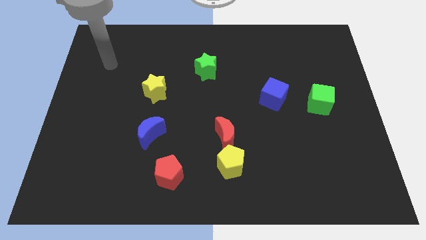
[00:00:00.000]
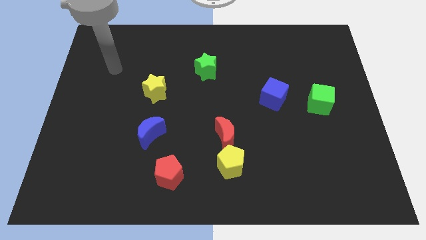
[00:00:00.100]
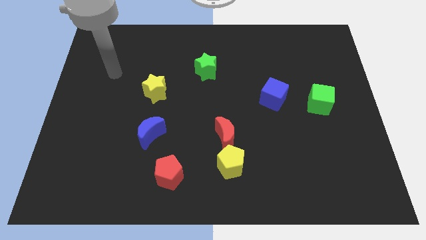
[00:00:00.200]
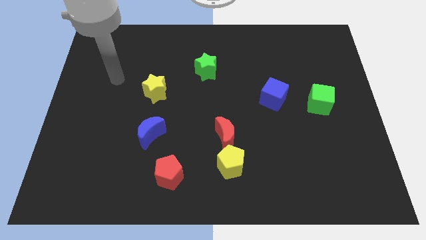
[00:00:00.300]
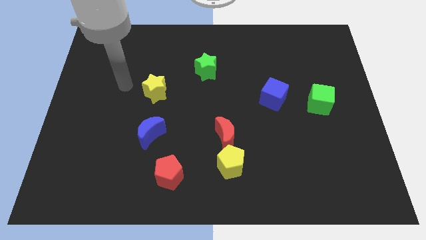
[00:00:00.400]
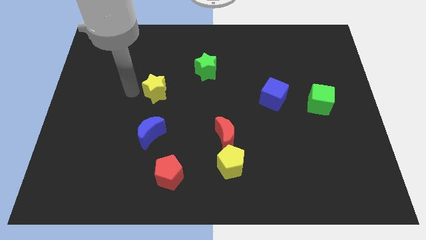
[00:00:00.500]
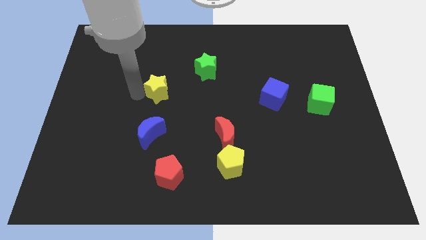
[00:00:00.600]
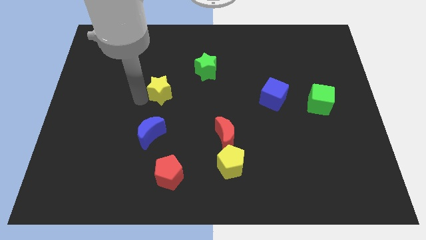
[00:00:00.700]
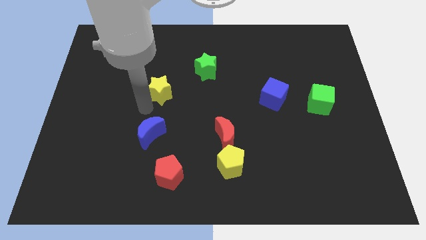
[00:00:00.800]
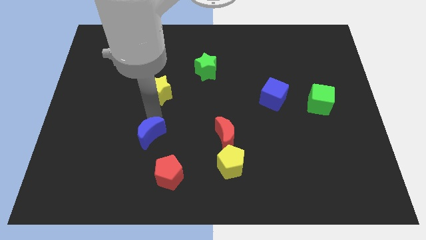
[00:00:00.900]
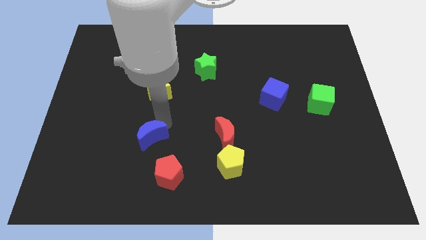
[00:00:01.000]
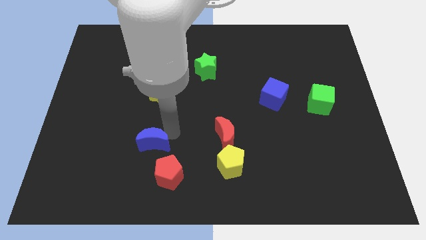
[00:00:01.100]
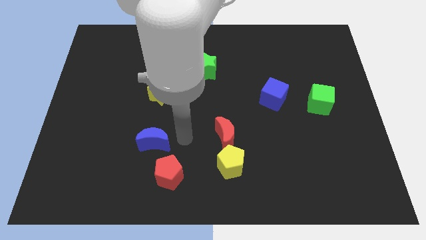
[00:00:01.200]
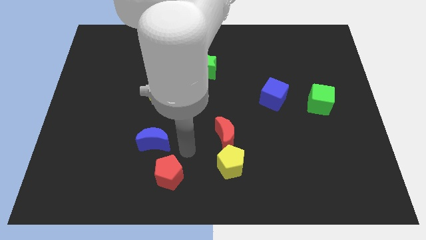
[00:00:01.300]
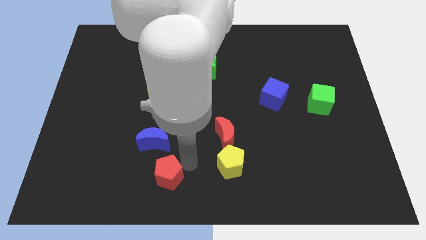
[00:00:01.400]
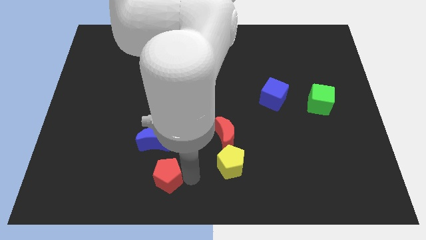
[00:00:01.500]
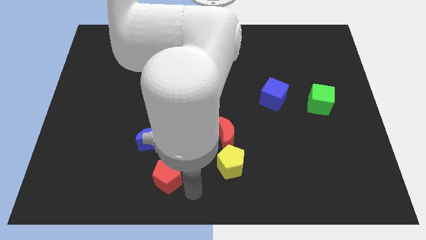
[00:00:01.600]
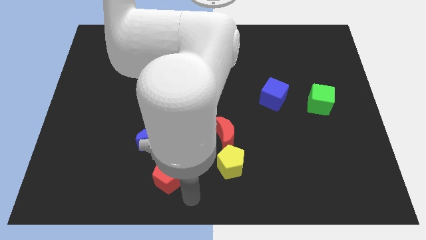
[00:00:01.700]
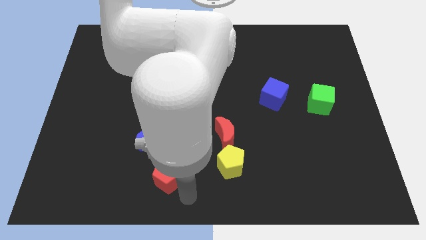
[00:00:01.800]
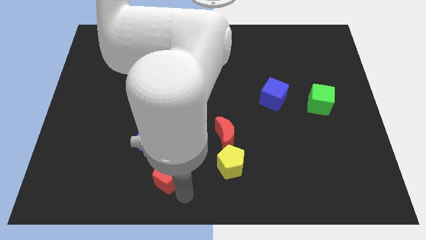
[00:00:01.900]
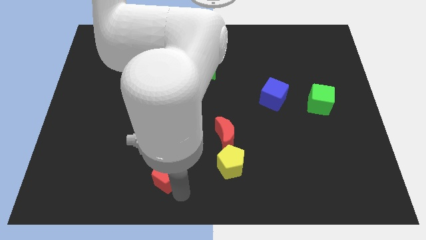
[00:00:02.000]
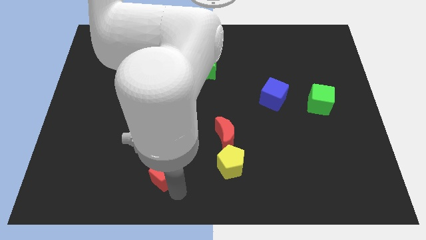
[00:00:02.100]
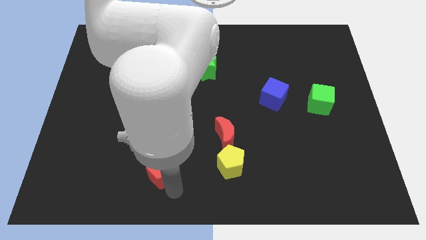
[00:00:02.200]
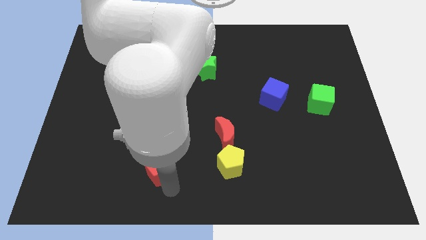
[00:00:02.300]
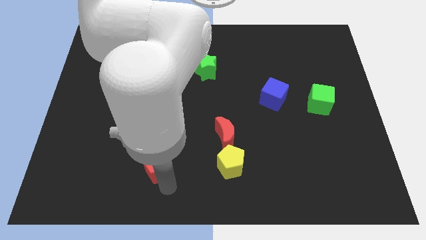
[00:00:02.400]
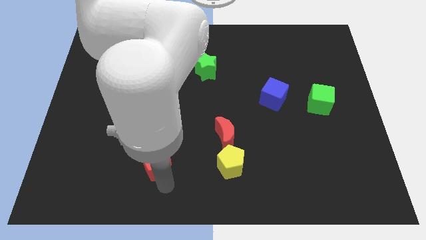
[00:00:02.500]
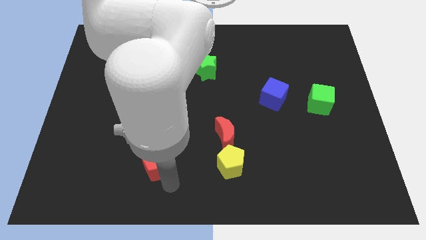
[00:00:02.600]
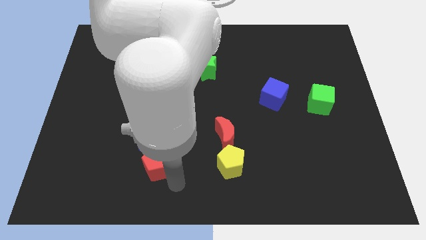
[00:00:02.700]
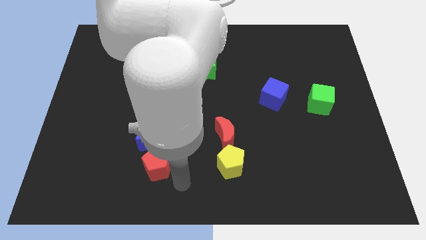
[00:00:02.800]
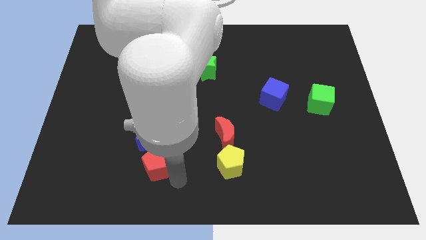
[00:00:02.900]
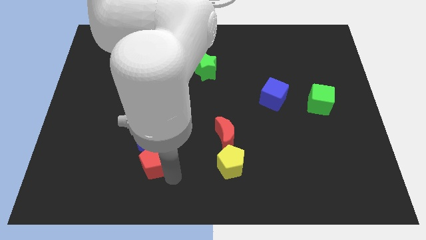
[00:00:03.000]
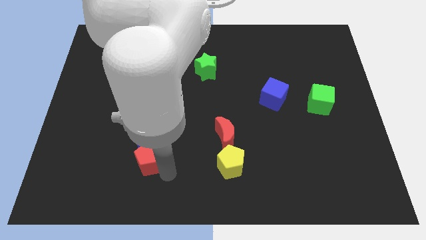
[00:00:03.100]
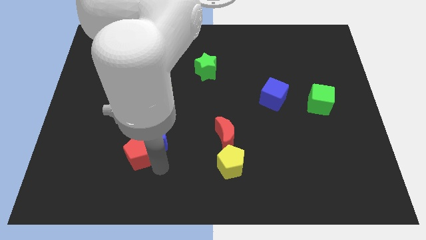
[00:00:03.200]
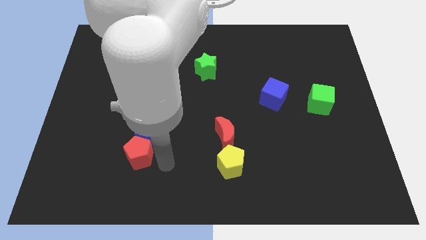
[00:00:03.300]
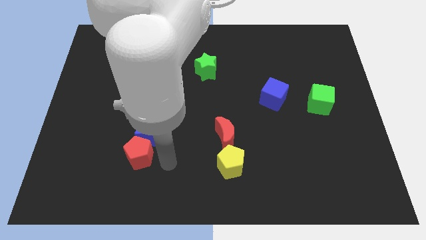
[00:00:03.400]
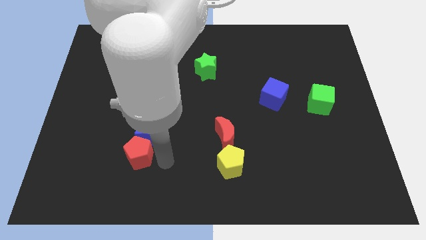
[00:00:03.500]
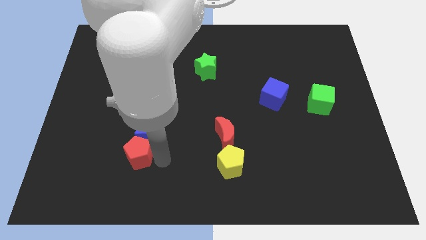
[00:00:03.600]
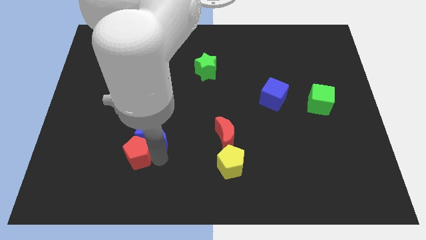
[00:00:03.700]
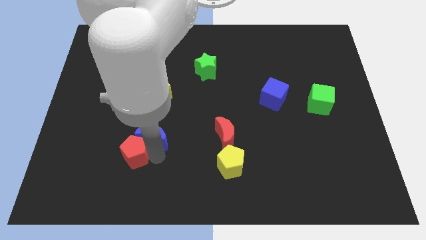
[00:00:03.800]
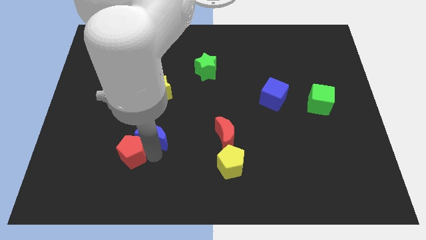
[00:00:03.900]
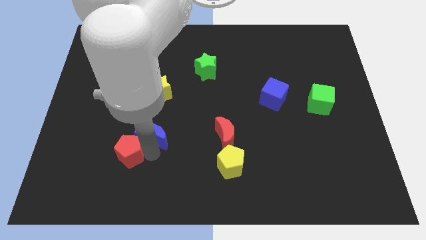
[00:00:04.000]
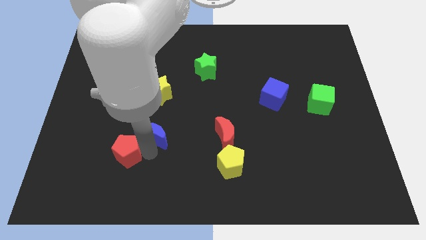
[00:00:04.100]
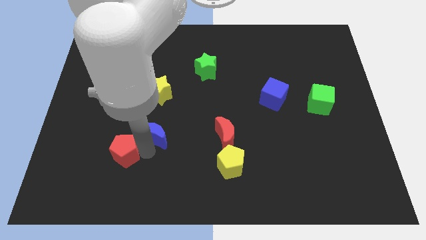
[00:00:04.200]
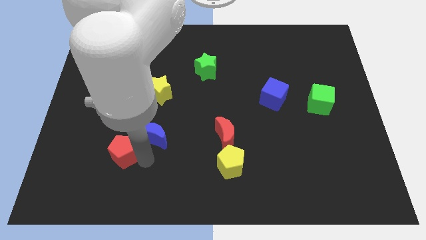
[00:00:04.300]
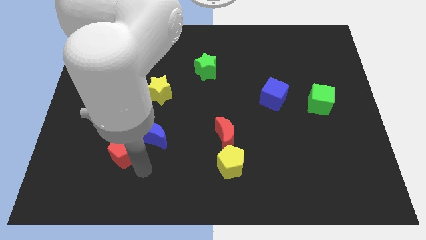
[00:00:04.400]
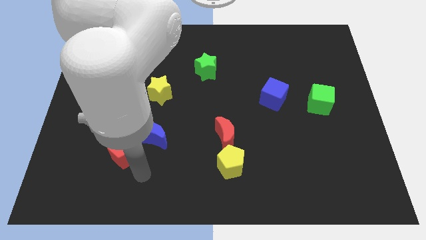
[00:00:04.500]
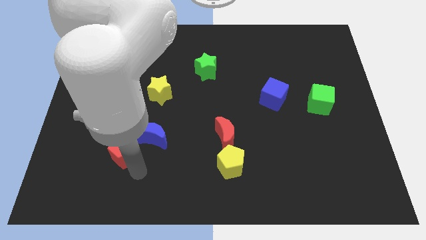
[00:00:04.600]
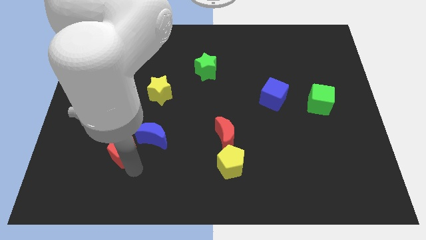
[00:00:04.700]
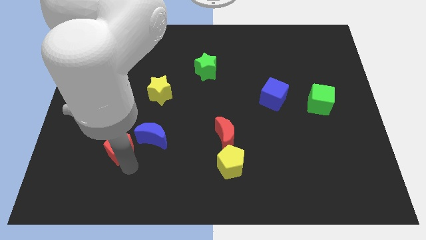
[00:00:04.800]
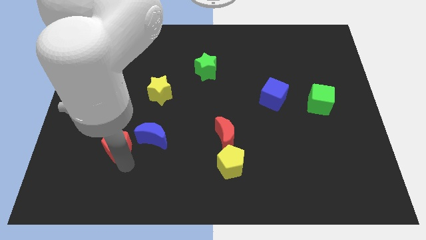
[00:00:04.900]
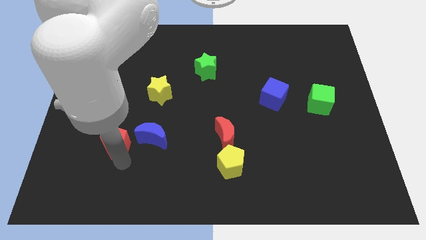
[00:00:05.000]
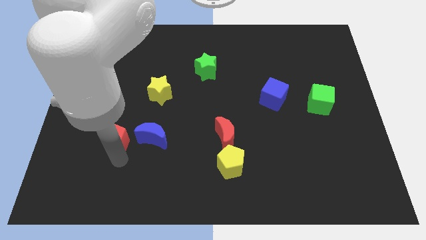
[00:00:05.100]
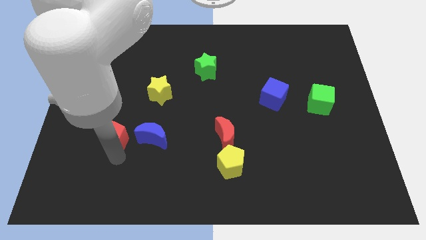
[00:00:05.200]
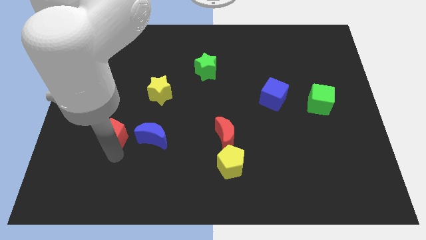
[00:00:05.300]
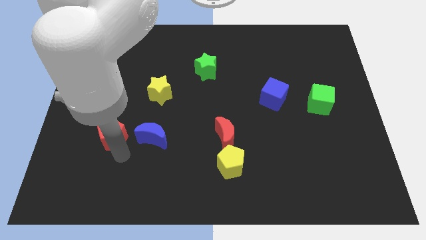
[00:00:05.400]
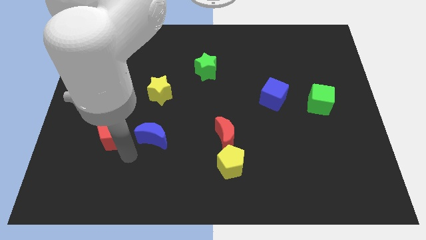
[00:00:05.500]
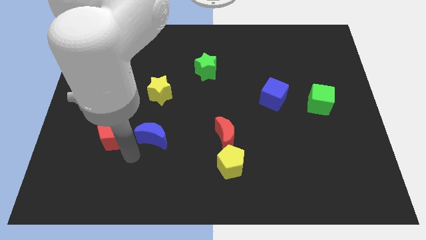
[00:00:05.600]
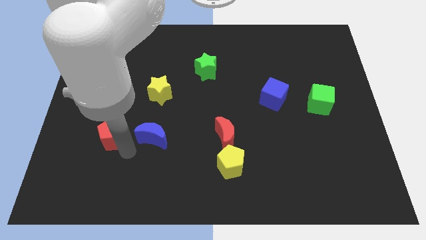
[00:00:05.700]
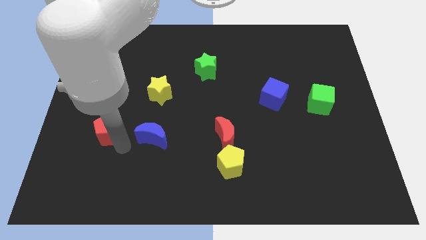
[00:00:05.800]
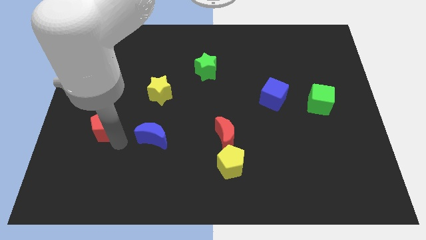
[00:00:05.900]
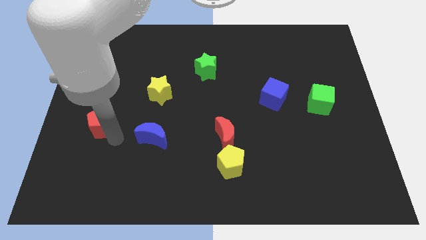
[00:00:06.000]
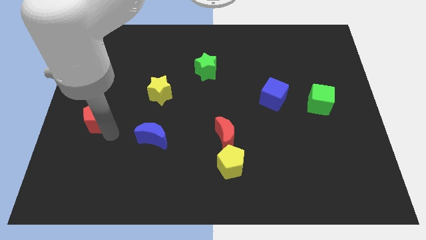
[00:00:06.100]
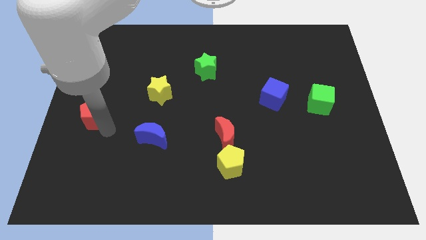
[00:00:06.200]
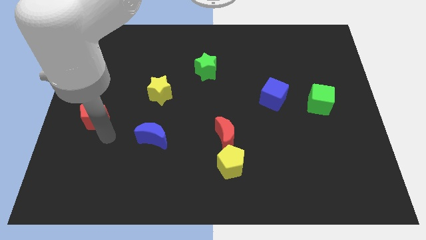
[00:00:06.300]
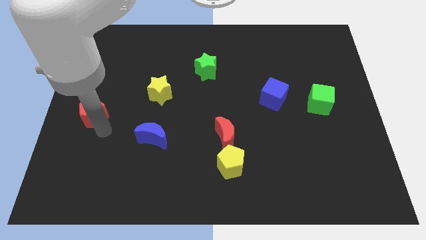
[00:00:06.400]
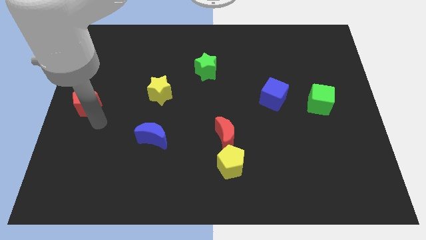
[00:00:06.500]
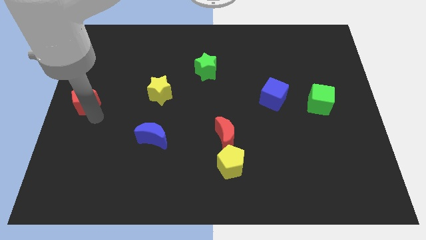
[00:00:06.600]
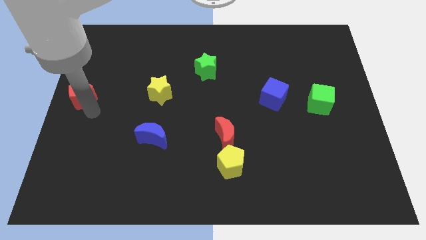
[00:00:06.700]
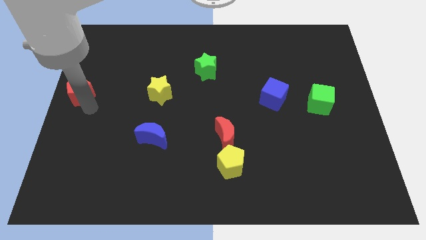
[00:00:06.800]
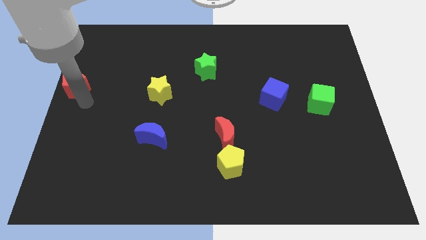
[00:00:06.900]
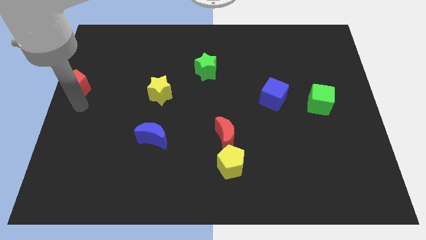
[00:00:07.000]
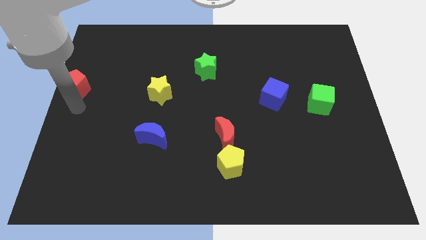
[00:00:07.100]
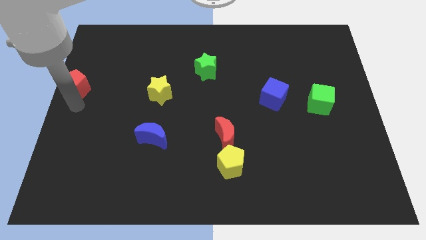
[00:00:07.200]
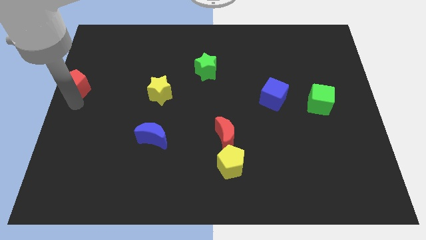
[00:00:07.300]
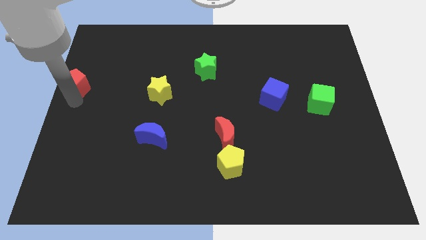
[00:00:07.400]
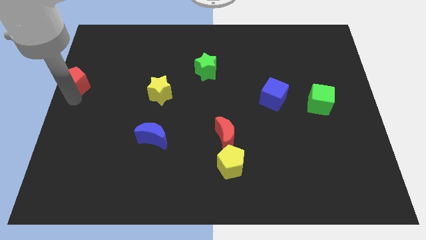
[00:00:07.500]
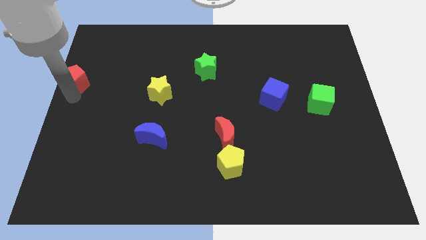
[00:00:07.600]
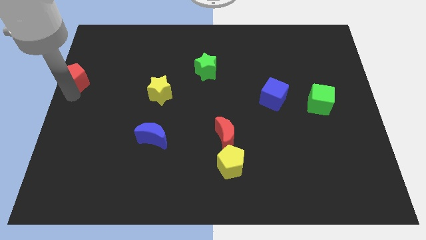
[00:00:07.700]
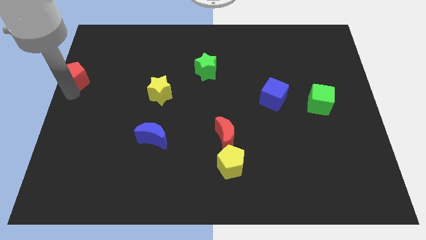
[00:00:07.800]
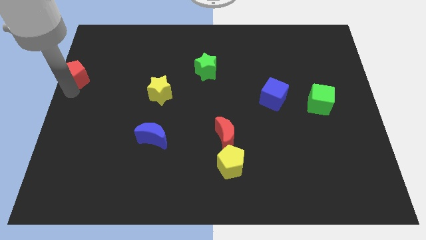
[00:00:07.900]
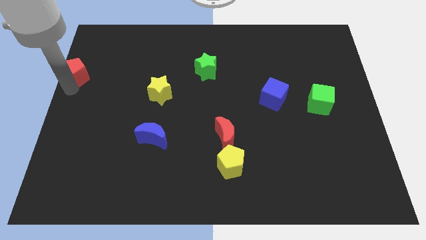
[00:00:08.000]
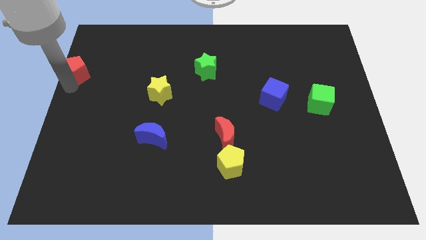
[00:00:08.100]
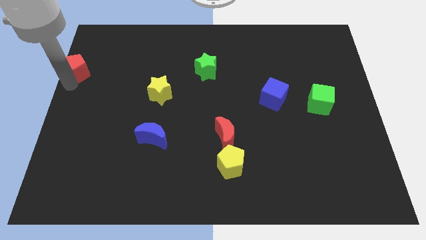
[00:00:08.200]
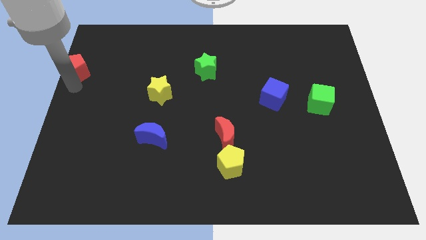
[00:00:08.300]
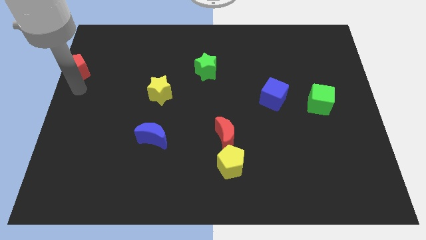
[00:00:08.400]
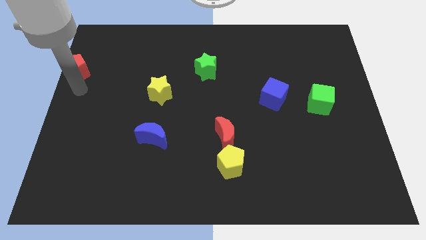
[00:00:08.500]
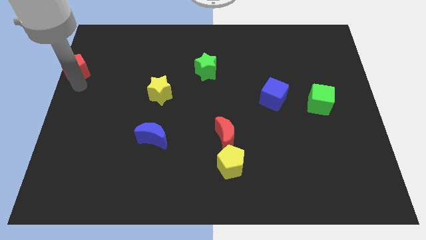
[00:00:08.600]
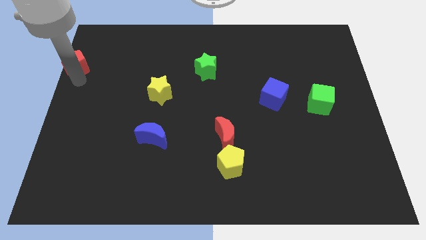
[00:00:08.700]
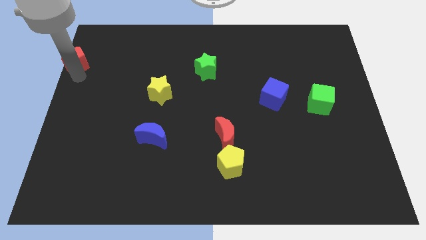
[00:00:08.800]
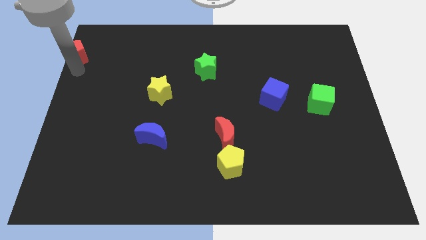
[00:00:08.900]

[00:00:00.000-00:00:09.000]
put the red pentagon to the upper left corner
